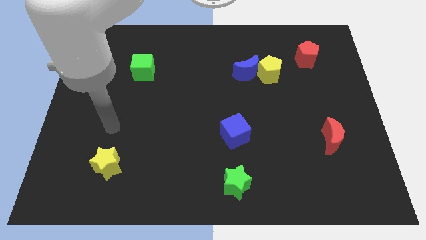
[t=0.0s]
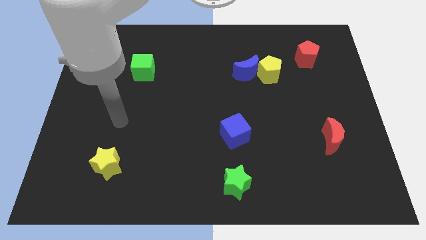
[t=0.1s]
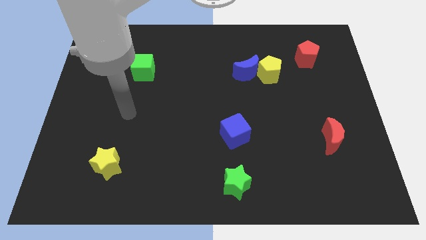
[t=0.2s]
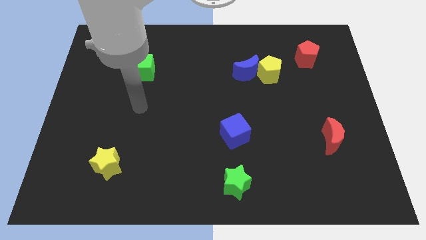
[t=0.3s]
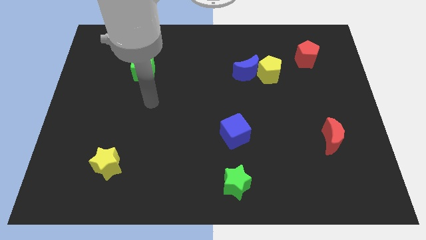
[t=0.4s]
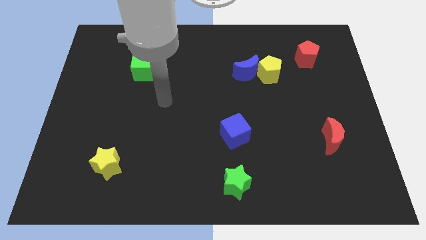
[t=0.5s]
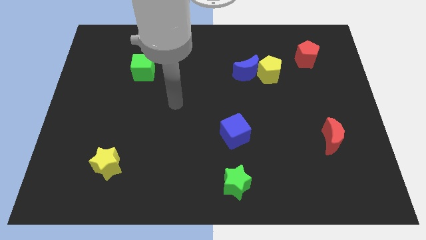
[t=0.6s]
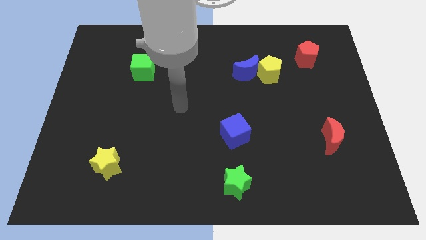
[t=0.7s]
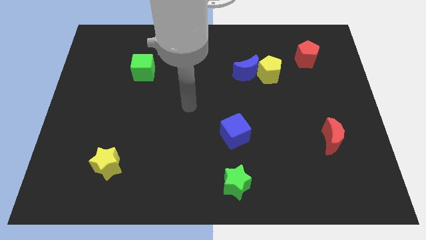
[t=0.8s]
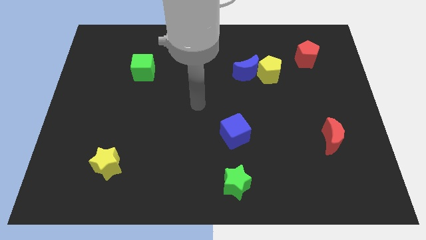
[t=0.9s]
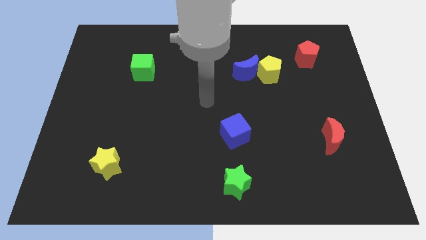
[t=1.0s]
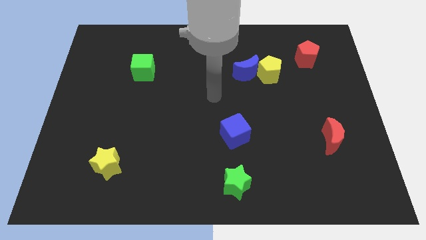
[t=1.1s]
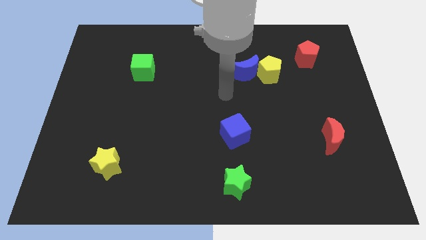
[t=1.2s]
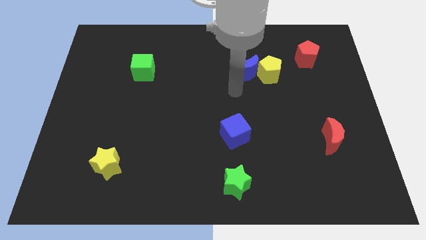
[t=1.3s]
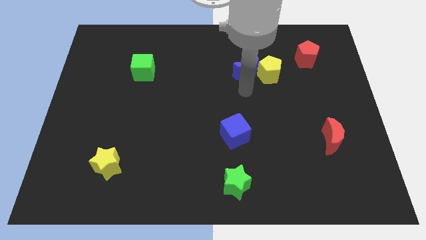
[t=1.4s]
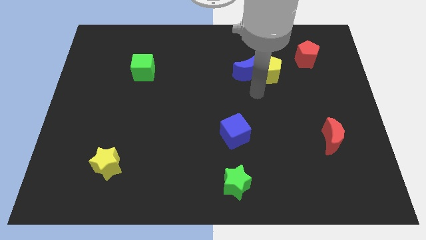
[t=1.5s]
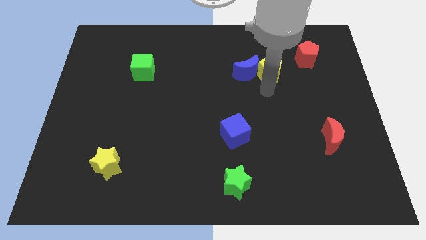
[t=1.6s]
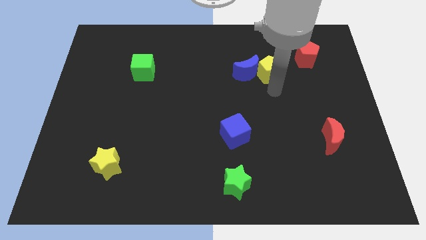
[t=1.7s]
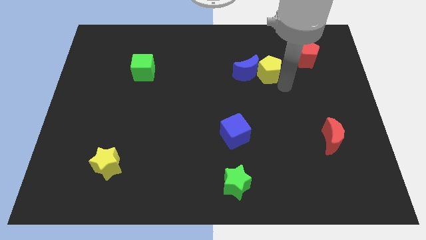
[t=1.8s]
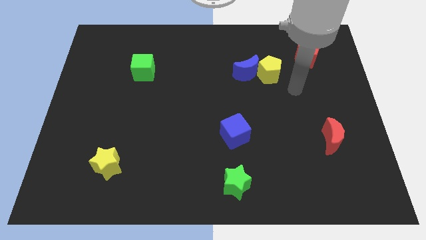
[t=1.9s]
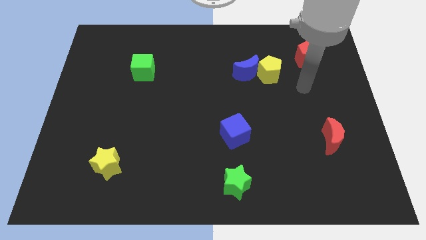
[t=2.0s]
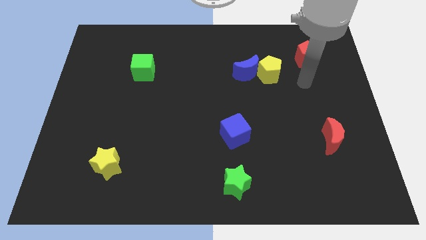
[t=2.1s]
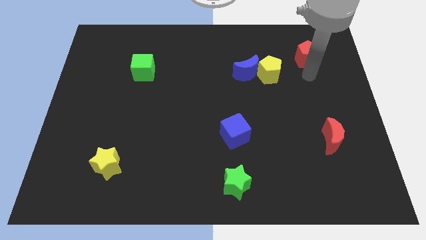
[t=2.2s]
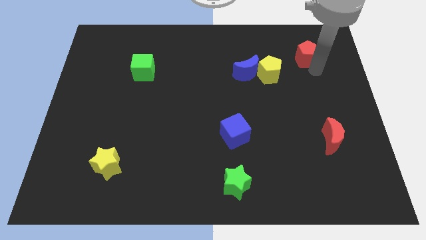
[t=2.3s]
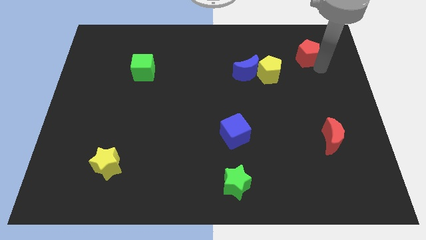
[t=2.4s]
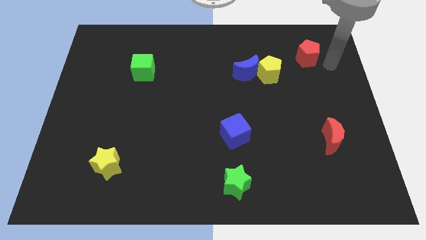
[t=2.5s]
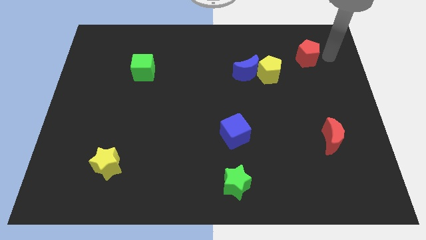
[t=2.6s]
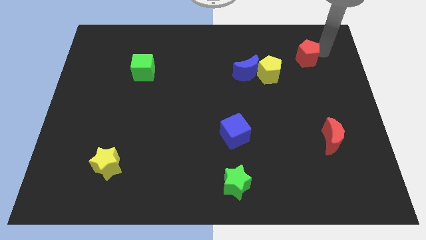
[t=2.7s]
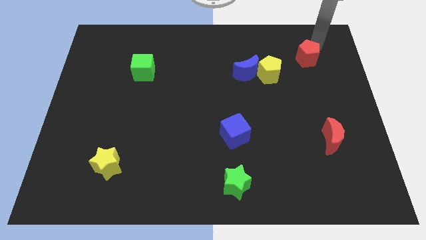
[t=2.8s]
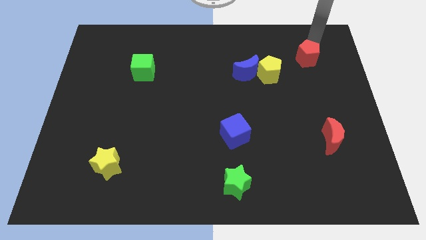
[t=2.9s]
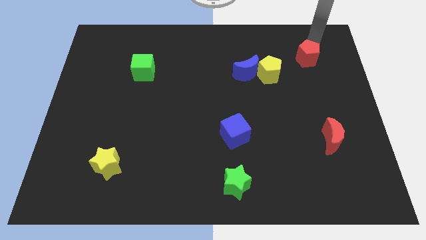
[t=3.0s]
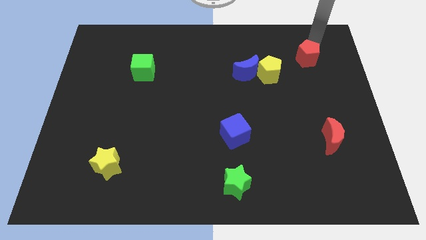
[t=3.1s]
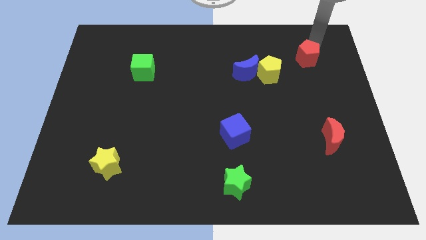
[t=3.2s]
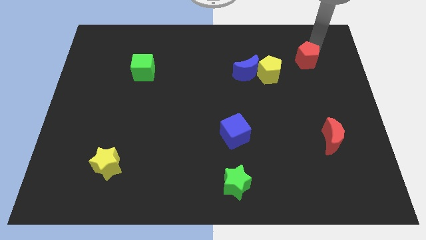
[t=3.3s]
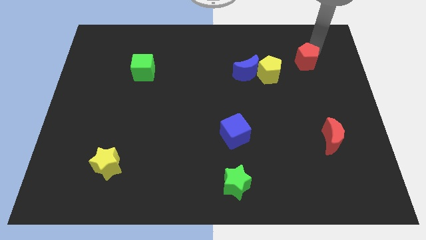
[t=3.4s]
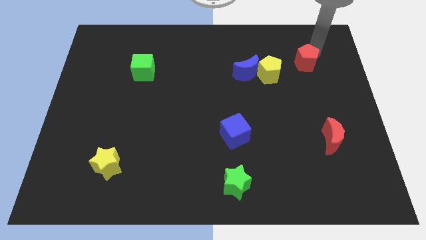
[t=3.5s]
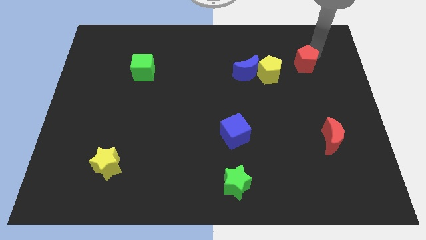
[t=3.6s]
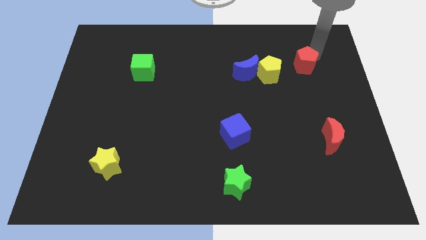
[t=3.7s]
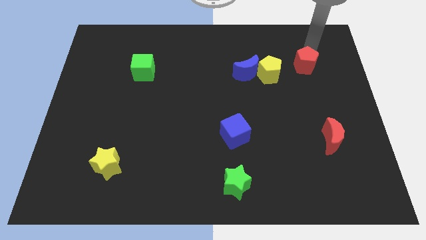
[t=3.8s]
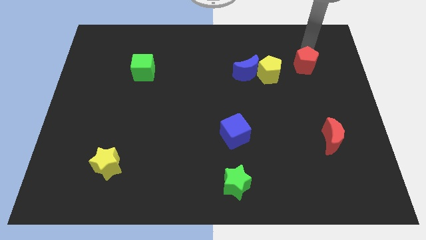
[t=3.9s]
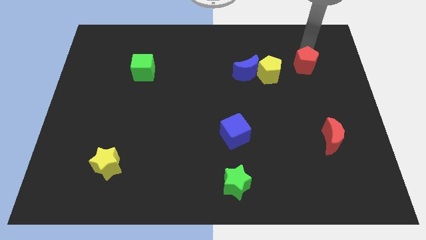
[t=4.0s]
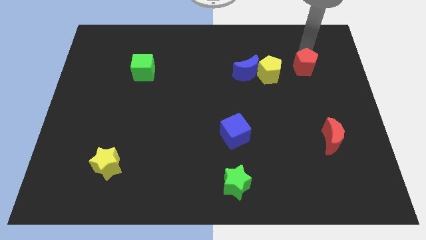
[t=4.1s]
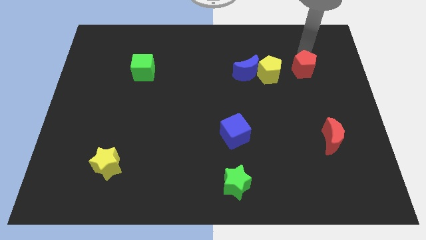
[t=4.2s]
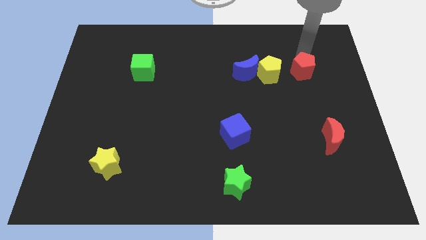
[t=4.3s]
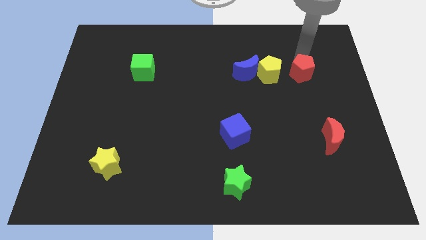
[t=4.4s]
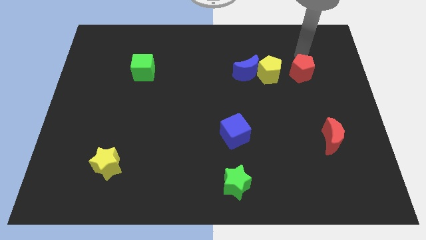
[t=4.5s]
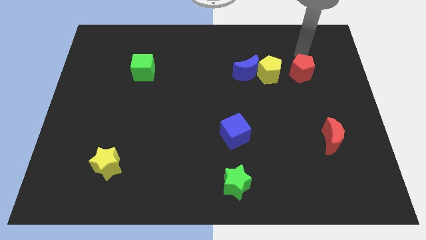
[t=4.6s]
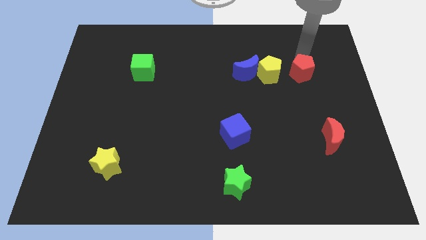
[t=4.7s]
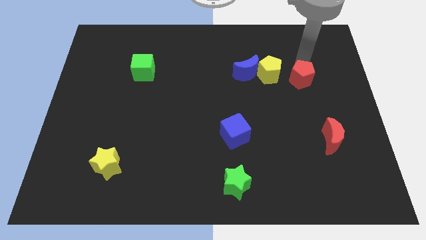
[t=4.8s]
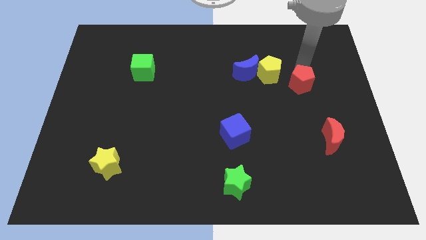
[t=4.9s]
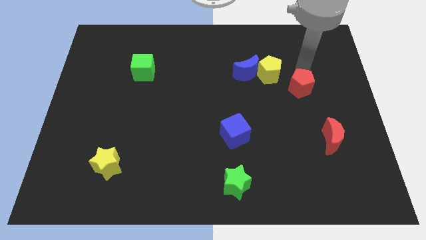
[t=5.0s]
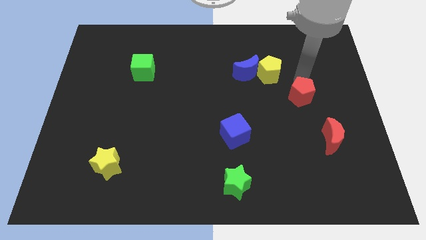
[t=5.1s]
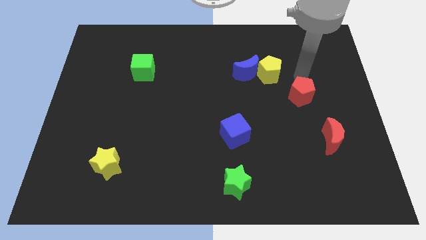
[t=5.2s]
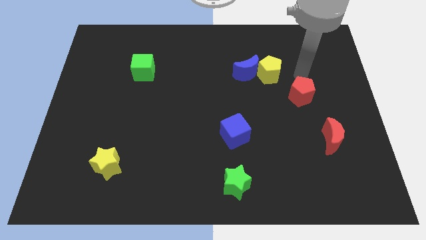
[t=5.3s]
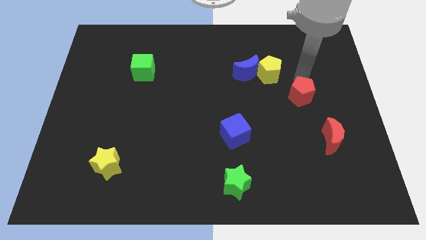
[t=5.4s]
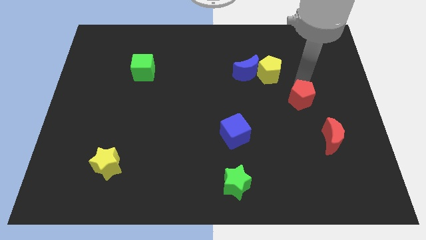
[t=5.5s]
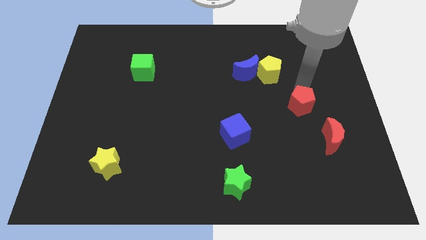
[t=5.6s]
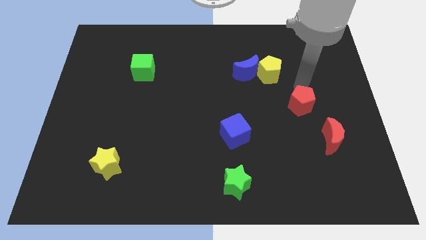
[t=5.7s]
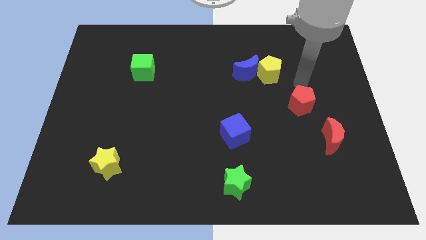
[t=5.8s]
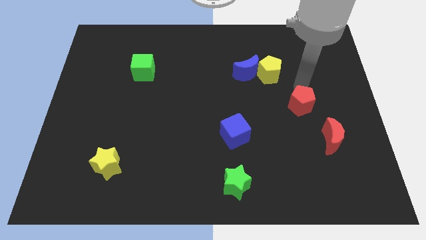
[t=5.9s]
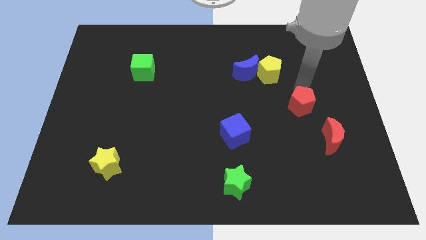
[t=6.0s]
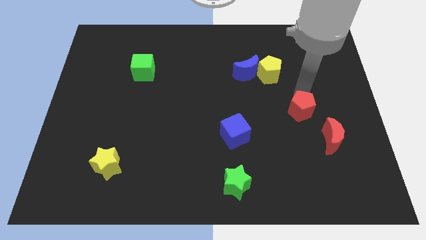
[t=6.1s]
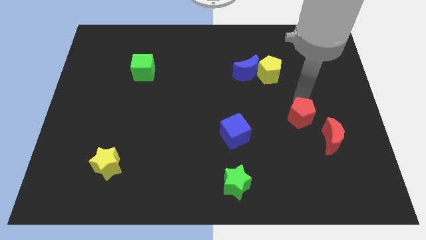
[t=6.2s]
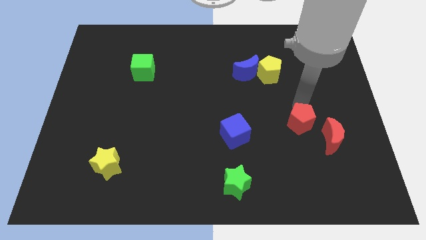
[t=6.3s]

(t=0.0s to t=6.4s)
push the red pentagon down

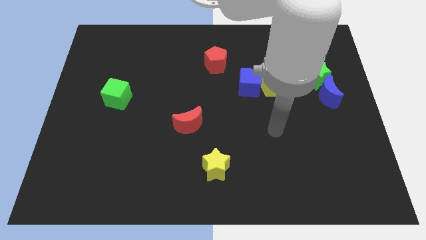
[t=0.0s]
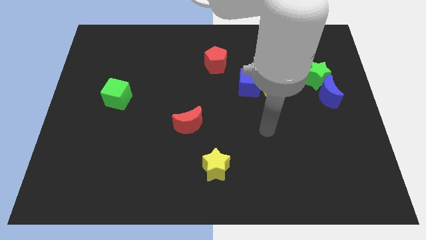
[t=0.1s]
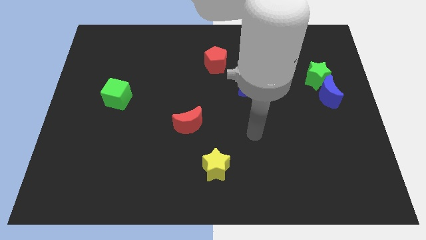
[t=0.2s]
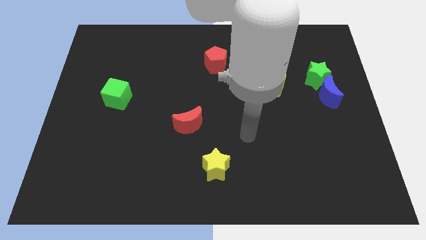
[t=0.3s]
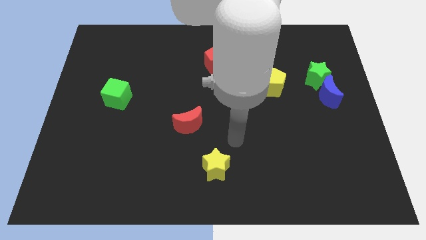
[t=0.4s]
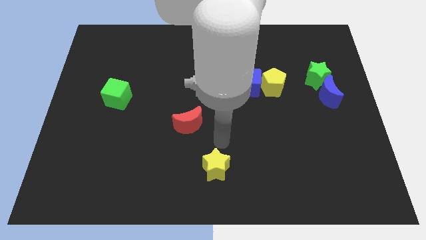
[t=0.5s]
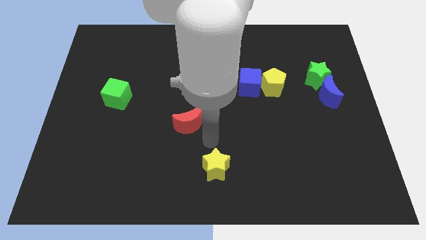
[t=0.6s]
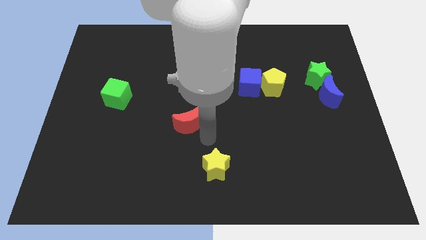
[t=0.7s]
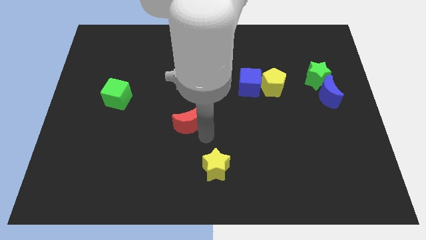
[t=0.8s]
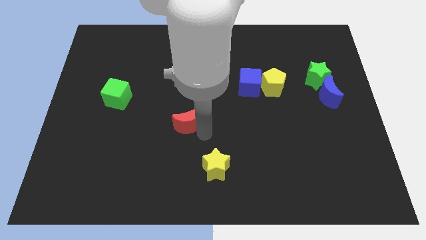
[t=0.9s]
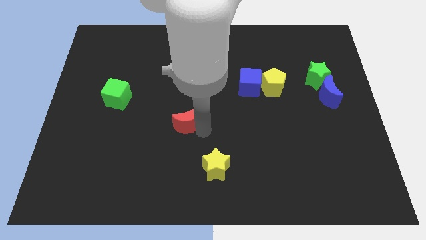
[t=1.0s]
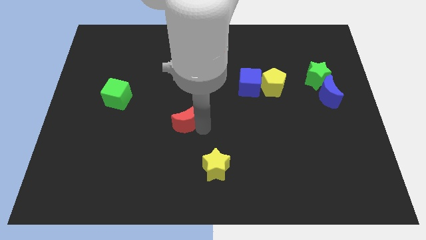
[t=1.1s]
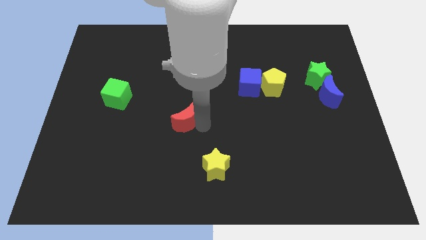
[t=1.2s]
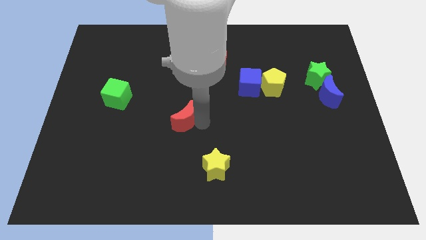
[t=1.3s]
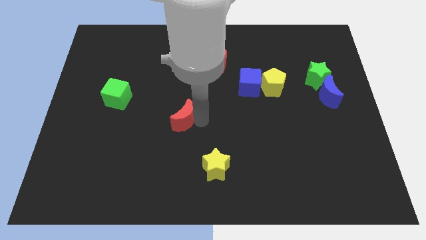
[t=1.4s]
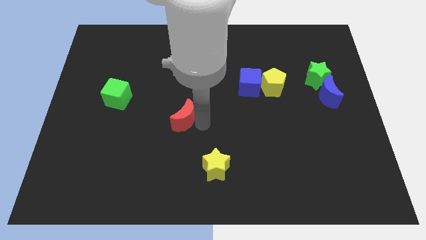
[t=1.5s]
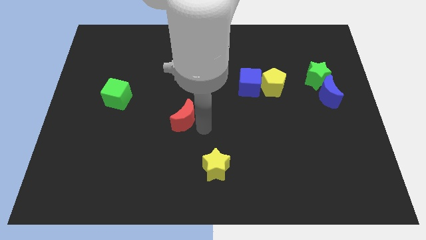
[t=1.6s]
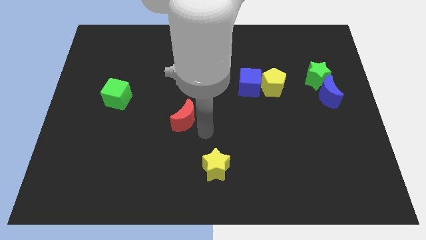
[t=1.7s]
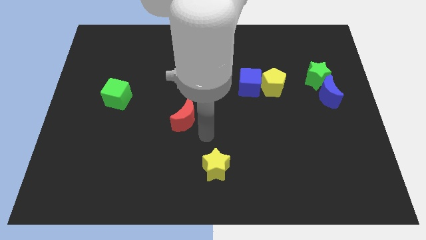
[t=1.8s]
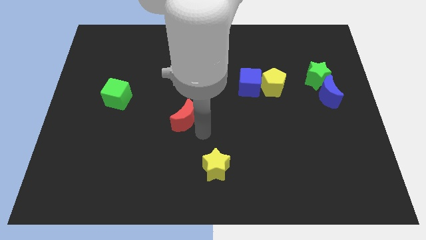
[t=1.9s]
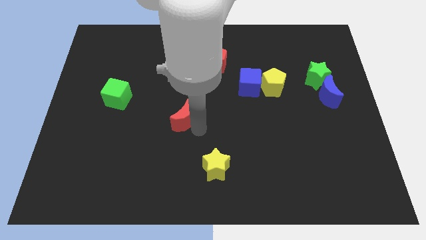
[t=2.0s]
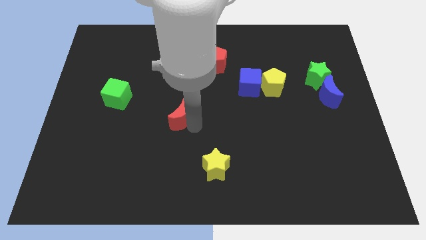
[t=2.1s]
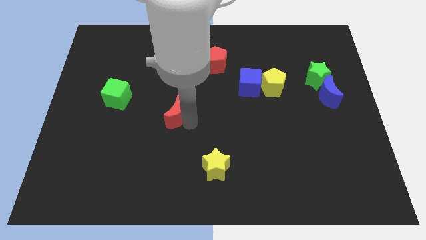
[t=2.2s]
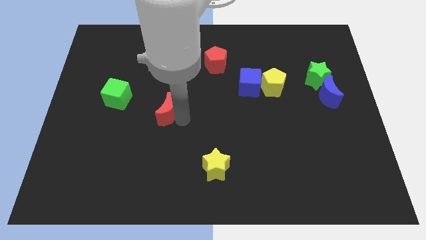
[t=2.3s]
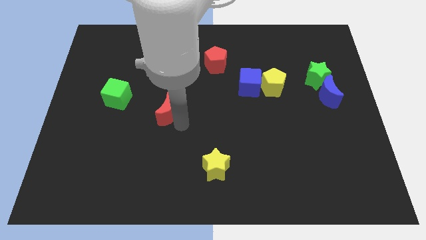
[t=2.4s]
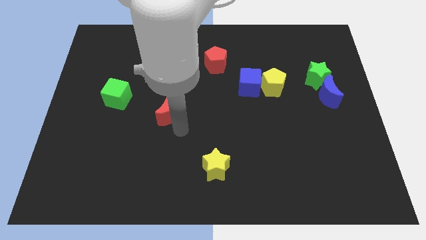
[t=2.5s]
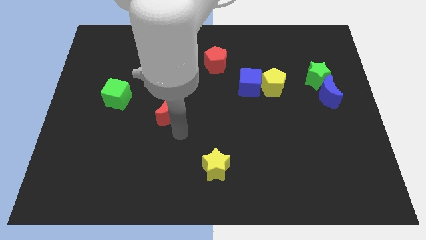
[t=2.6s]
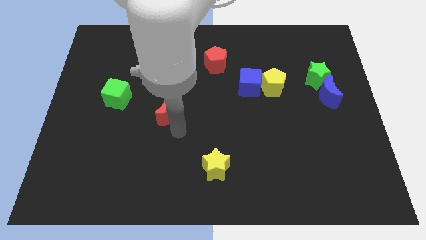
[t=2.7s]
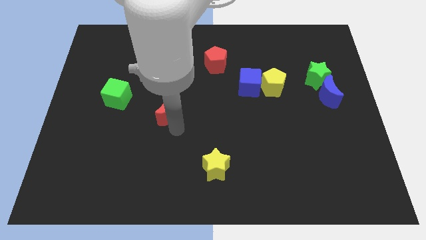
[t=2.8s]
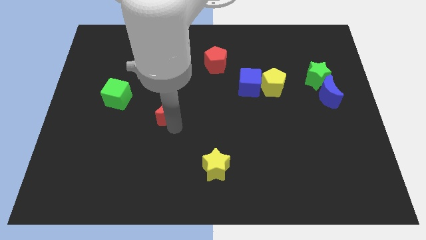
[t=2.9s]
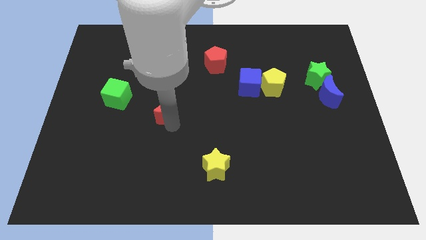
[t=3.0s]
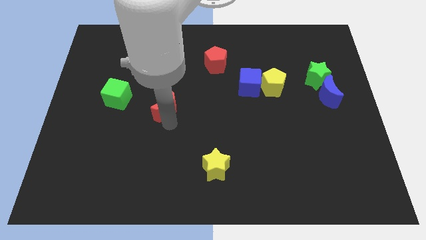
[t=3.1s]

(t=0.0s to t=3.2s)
slightly push the red moon up and then to the left
